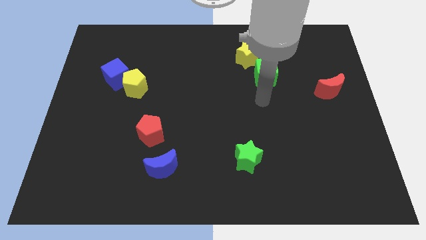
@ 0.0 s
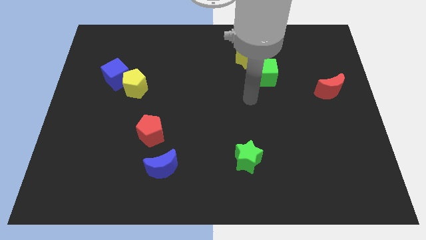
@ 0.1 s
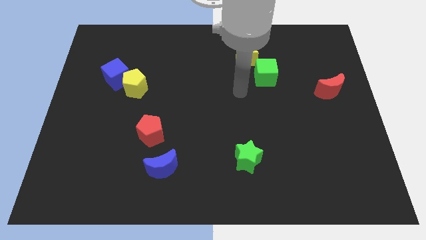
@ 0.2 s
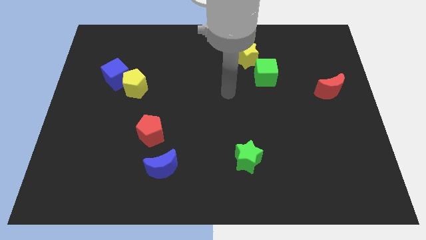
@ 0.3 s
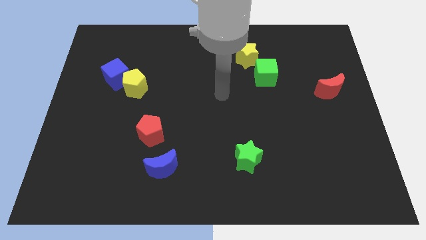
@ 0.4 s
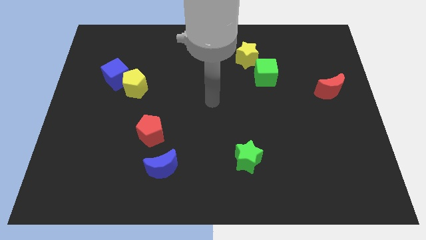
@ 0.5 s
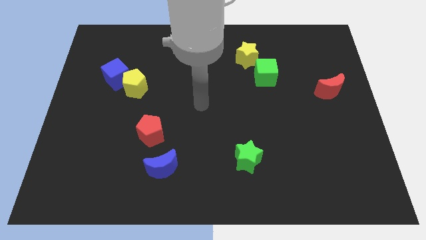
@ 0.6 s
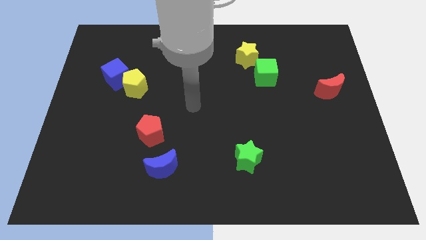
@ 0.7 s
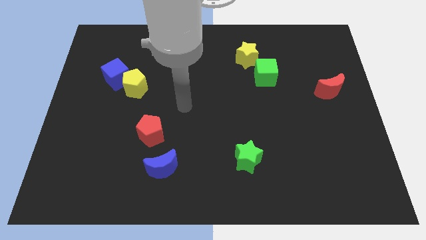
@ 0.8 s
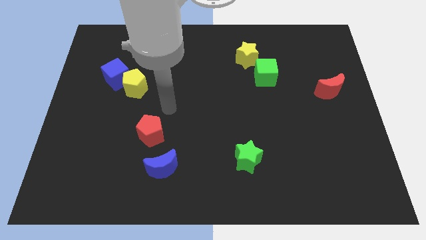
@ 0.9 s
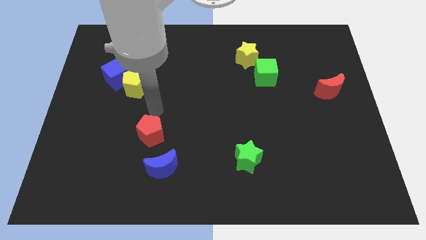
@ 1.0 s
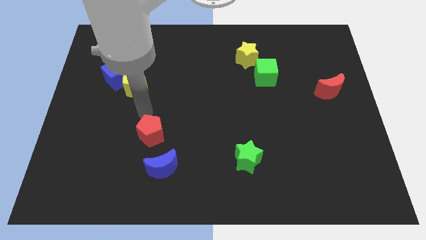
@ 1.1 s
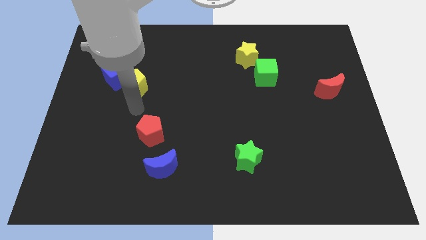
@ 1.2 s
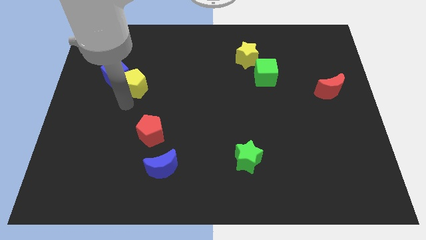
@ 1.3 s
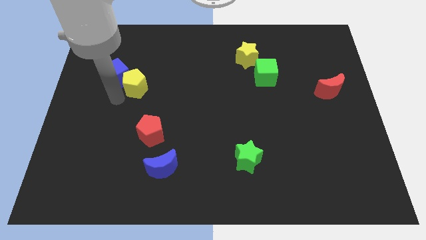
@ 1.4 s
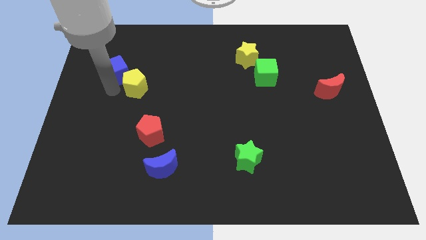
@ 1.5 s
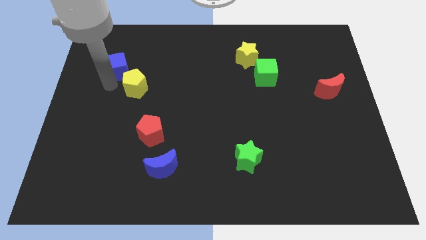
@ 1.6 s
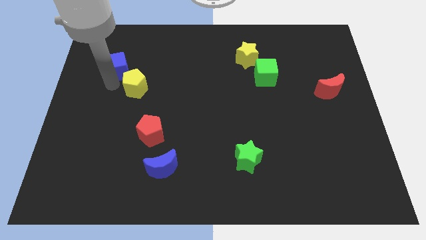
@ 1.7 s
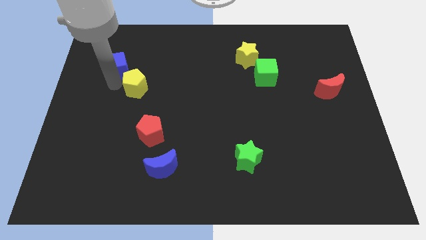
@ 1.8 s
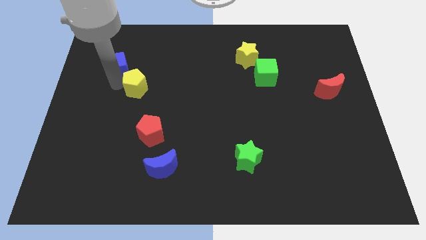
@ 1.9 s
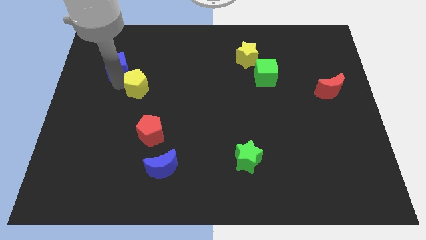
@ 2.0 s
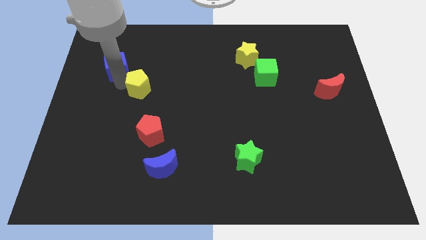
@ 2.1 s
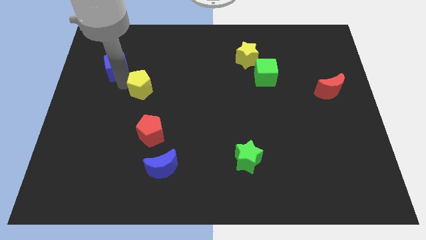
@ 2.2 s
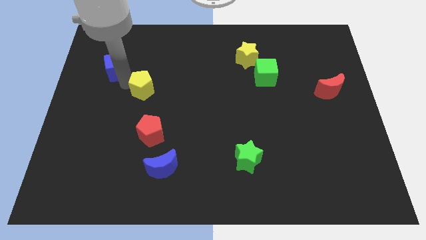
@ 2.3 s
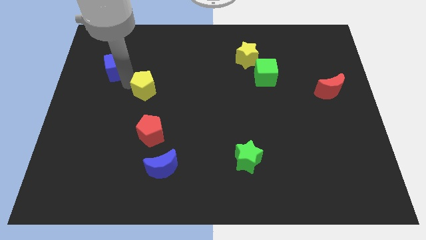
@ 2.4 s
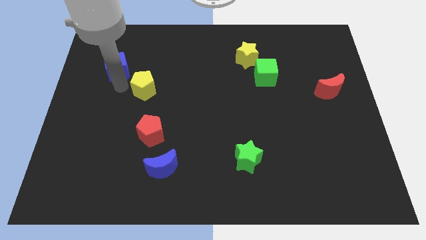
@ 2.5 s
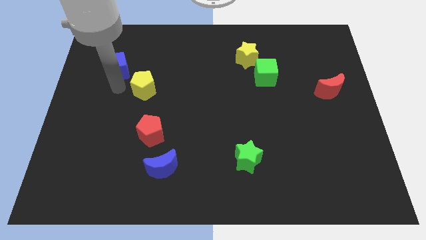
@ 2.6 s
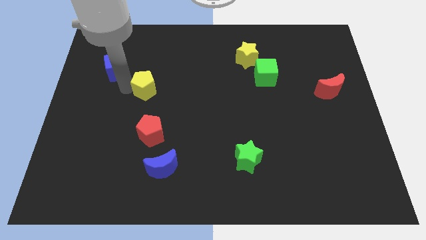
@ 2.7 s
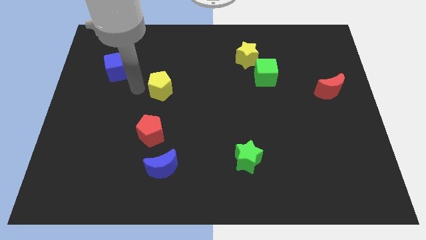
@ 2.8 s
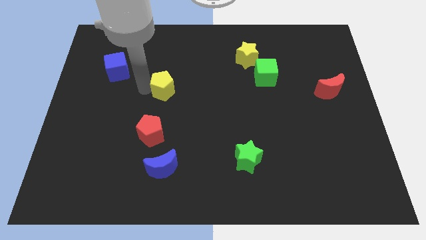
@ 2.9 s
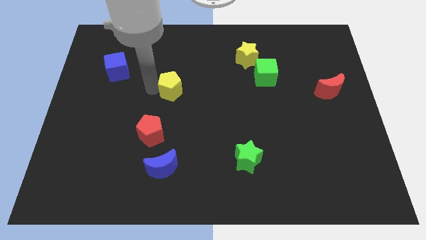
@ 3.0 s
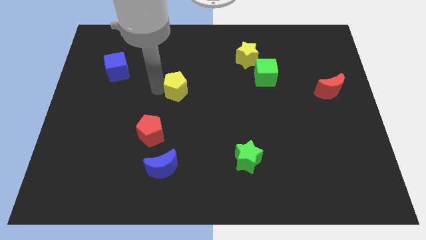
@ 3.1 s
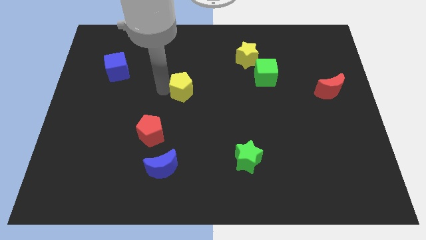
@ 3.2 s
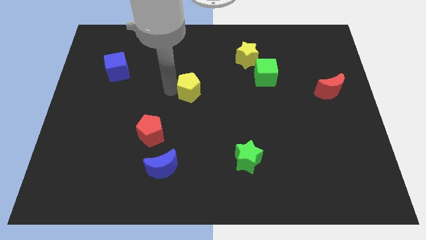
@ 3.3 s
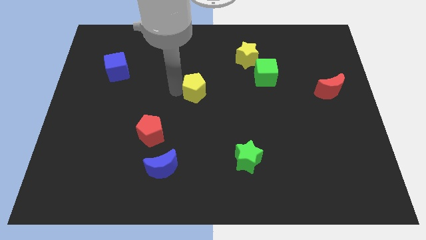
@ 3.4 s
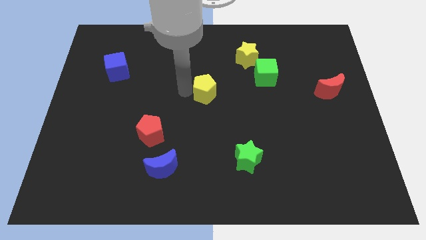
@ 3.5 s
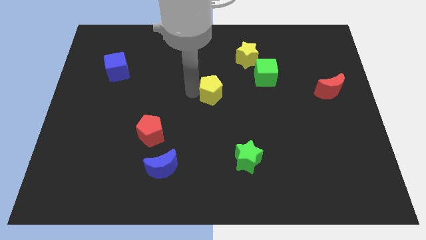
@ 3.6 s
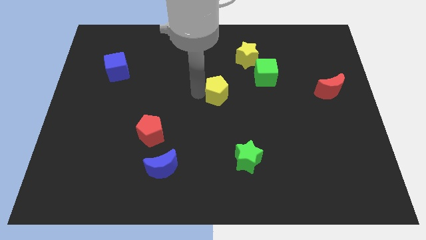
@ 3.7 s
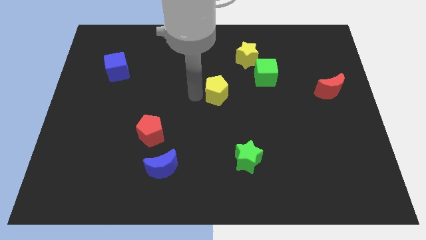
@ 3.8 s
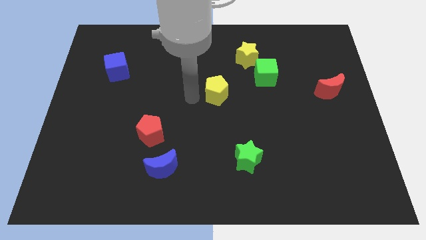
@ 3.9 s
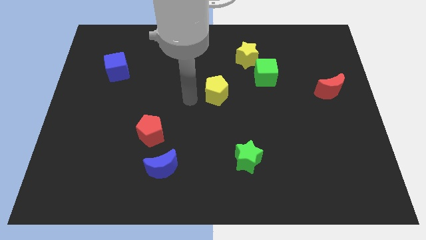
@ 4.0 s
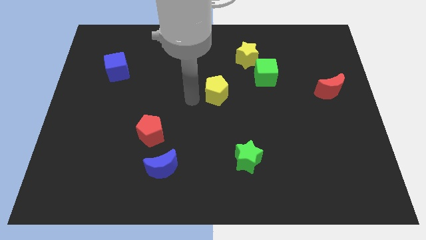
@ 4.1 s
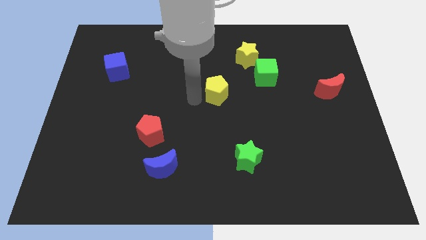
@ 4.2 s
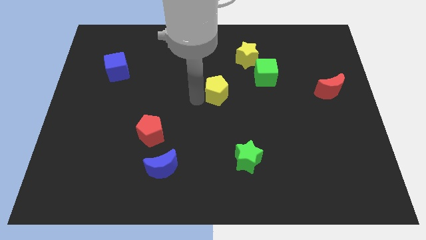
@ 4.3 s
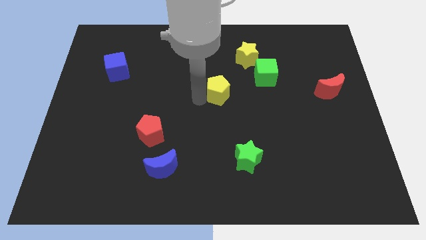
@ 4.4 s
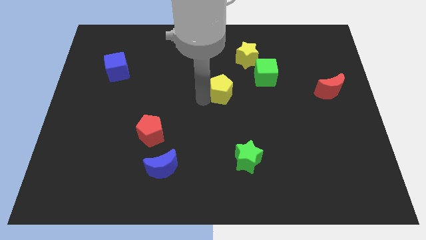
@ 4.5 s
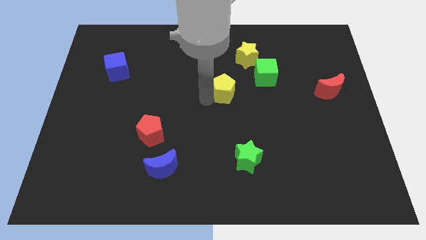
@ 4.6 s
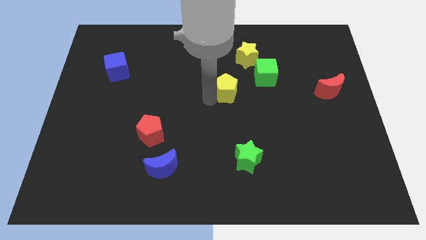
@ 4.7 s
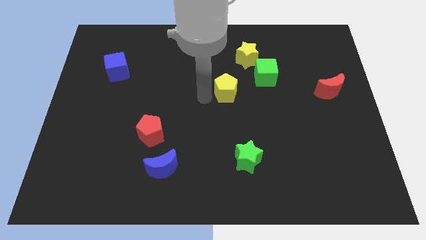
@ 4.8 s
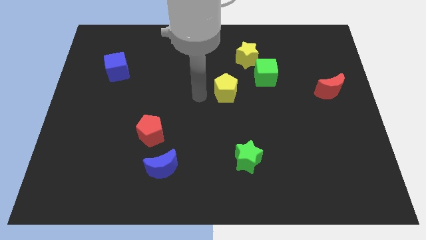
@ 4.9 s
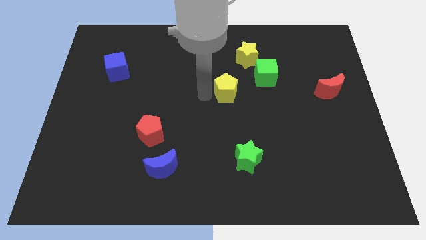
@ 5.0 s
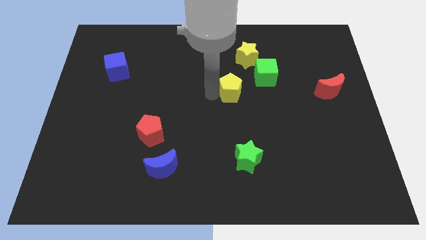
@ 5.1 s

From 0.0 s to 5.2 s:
move the yellow pentagon to the bottom side of the yellow star

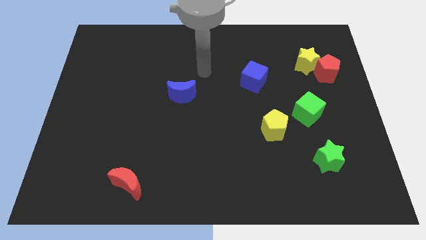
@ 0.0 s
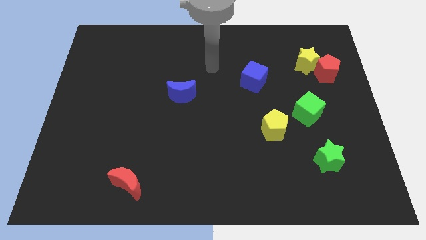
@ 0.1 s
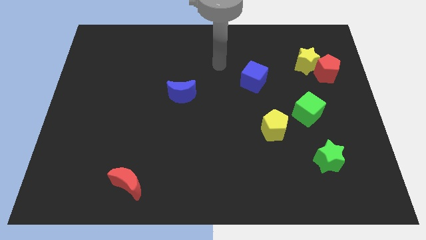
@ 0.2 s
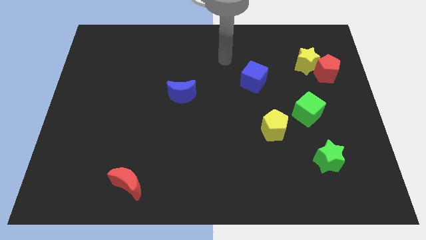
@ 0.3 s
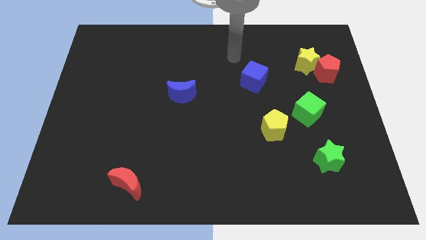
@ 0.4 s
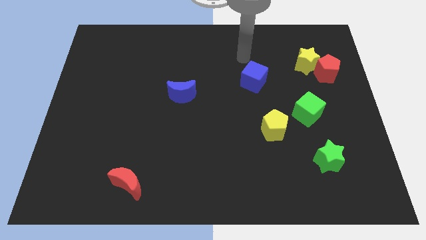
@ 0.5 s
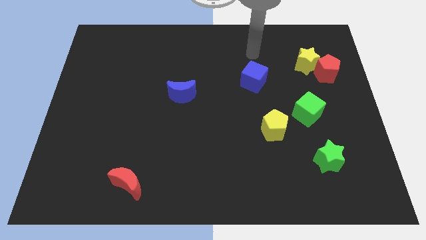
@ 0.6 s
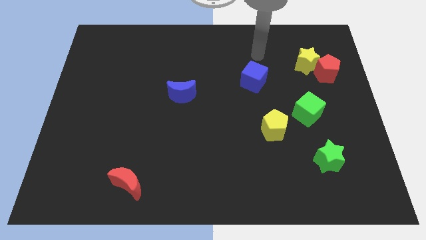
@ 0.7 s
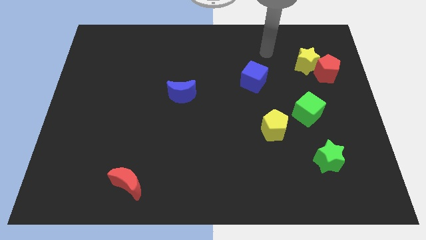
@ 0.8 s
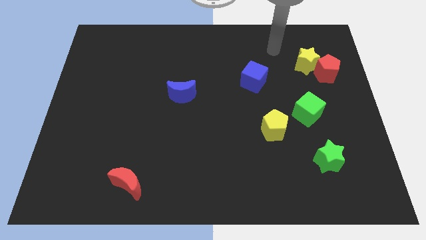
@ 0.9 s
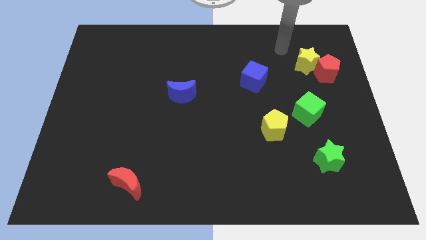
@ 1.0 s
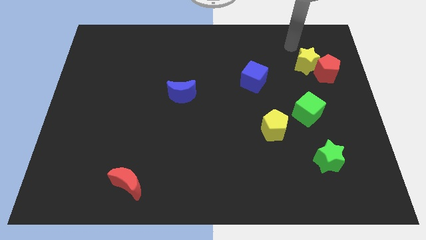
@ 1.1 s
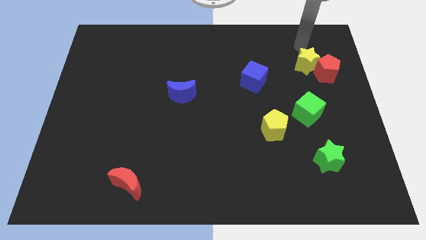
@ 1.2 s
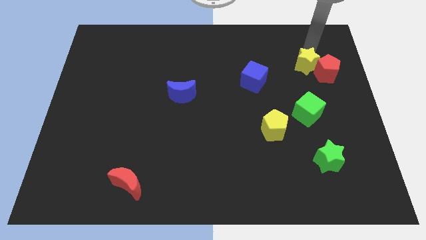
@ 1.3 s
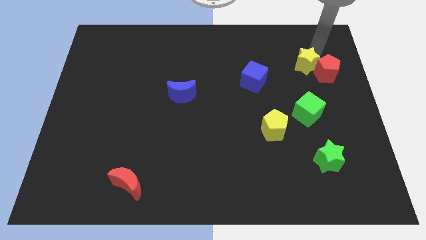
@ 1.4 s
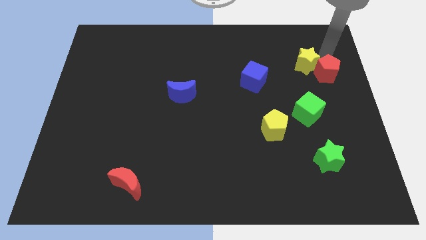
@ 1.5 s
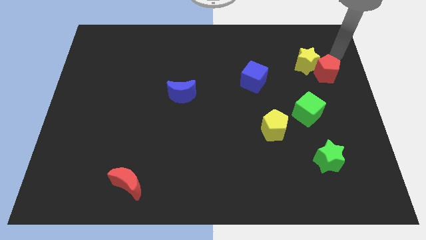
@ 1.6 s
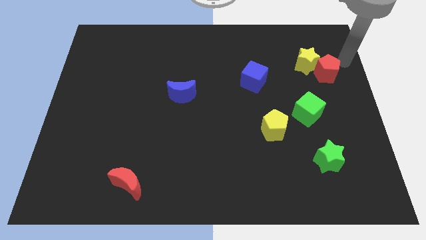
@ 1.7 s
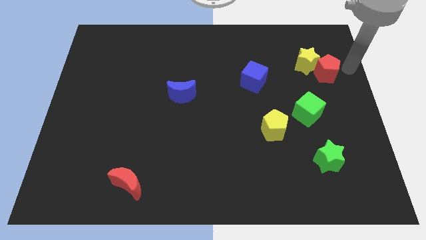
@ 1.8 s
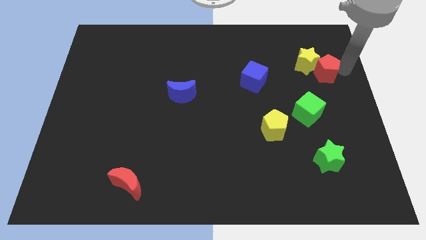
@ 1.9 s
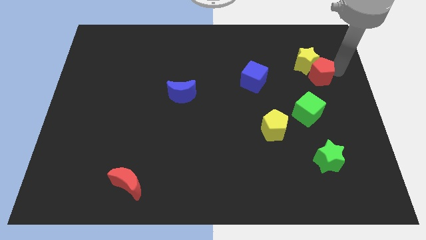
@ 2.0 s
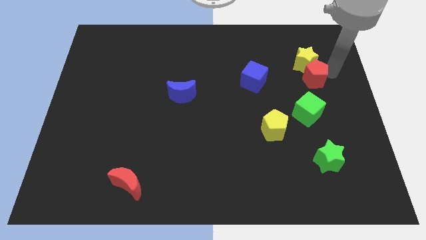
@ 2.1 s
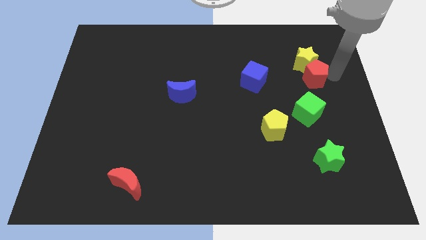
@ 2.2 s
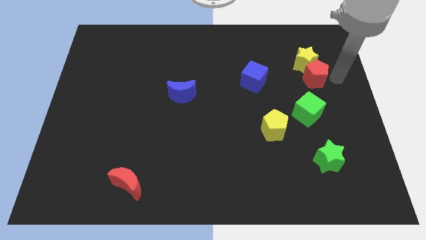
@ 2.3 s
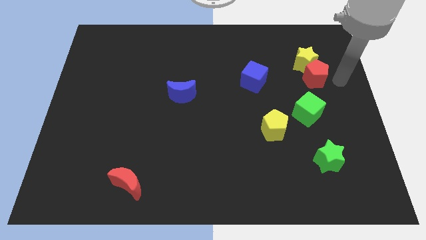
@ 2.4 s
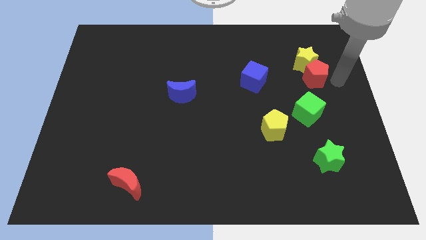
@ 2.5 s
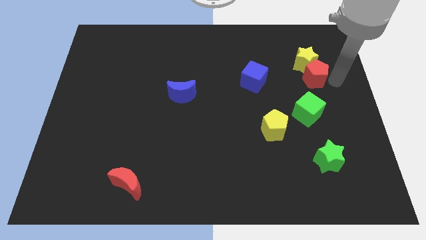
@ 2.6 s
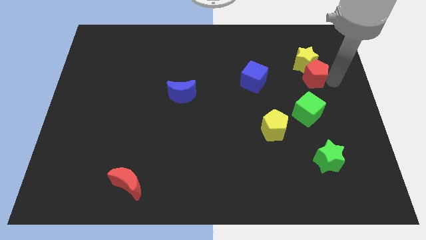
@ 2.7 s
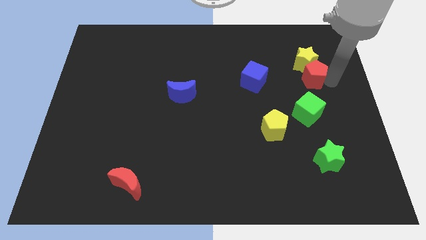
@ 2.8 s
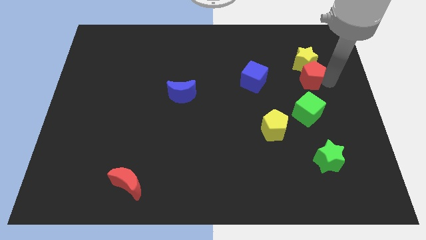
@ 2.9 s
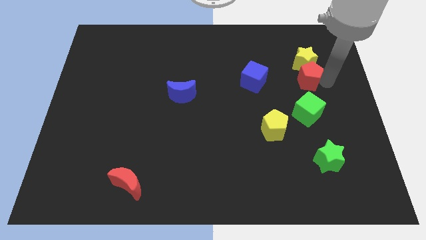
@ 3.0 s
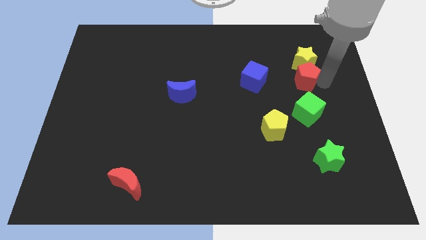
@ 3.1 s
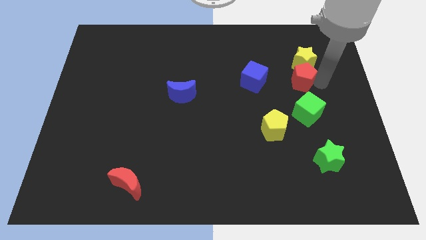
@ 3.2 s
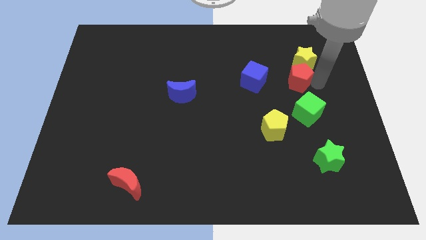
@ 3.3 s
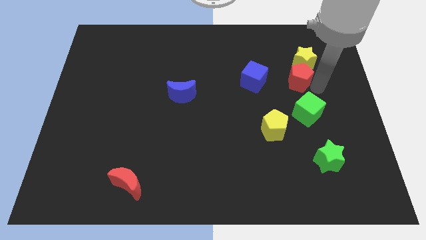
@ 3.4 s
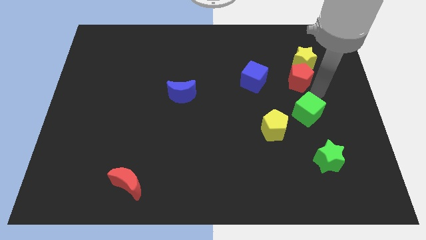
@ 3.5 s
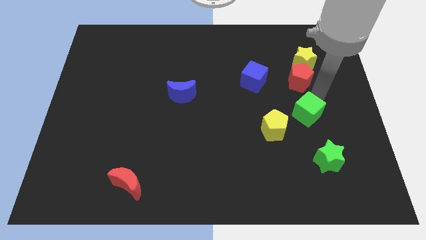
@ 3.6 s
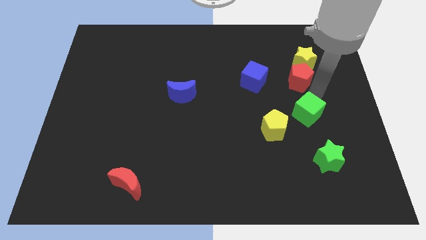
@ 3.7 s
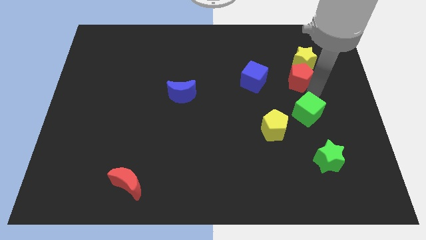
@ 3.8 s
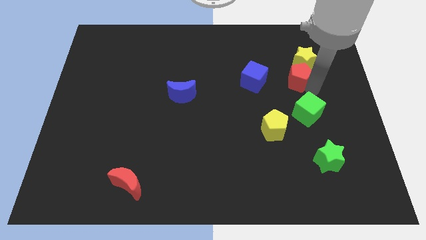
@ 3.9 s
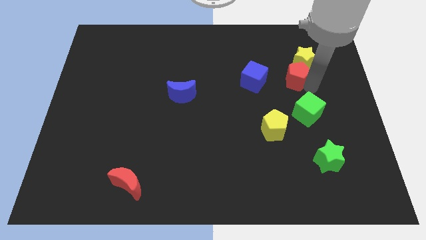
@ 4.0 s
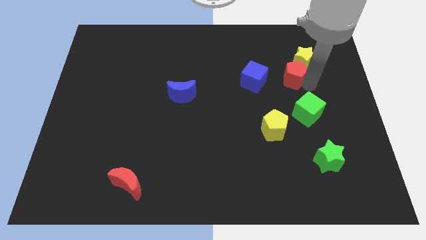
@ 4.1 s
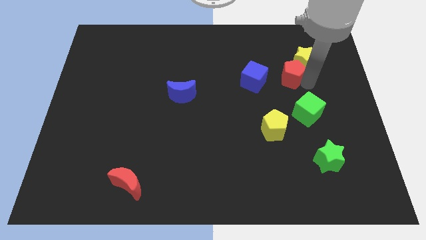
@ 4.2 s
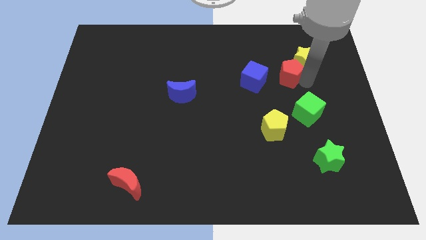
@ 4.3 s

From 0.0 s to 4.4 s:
put the red pentagon to the left of the yellow star
